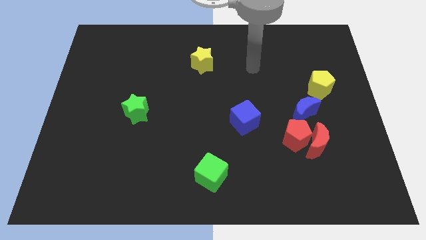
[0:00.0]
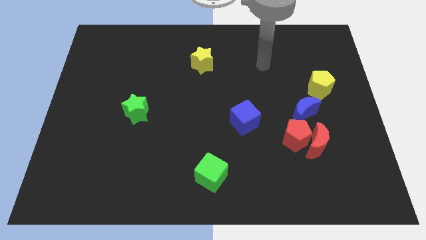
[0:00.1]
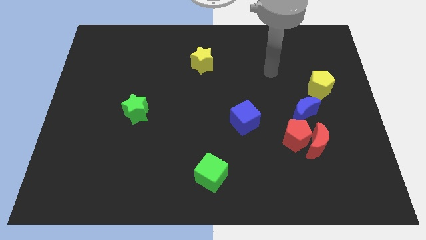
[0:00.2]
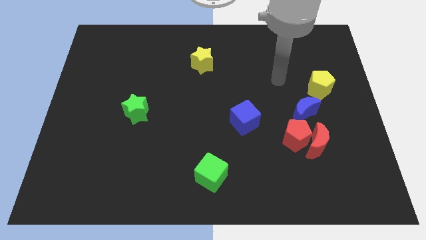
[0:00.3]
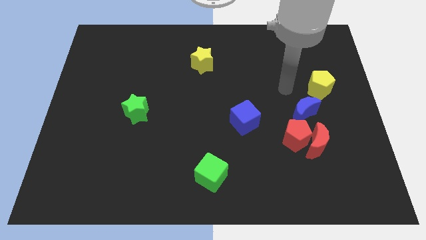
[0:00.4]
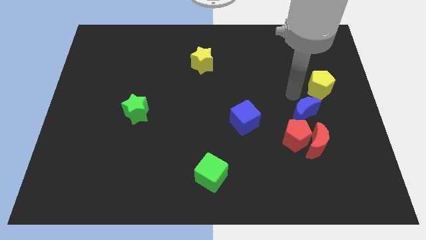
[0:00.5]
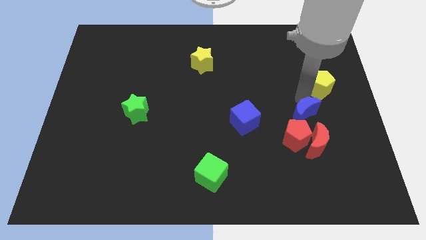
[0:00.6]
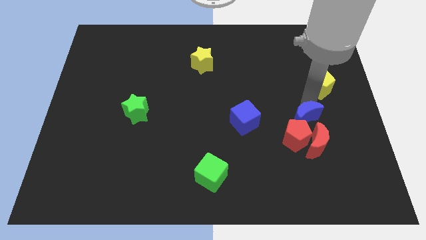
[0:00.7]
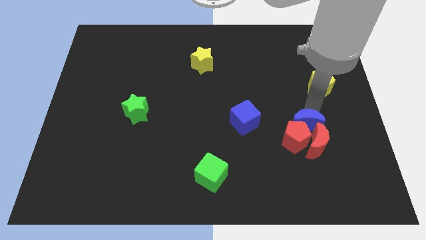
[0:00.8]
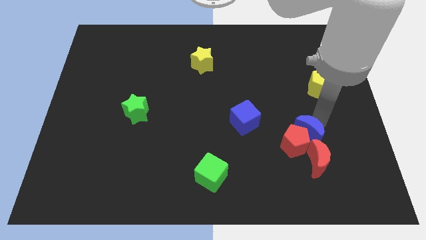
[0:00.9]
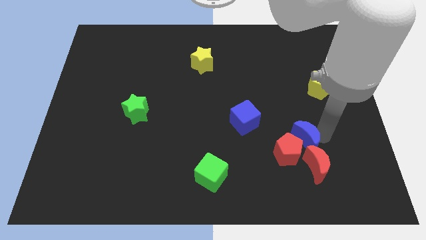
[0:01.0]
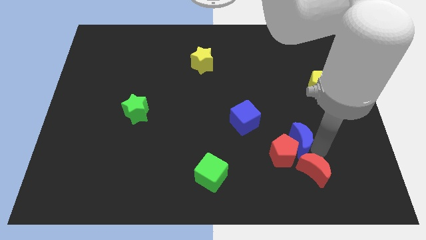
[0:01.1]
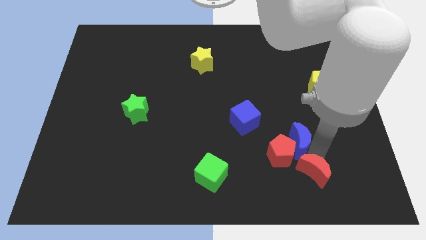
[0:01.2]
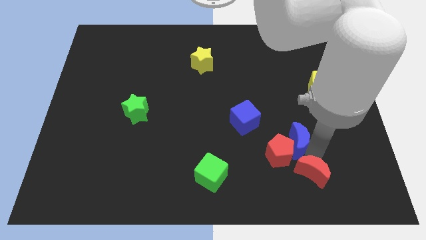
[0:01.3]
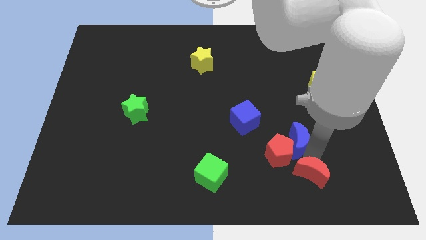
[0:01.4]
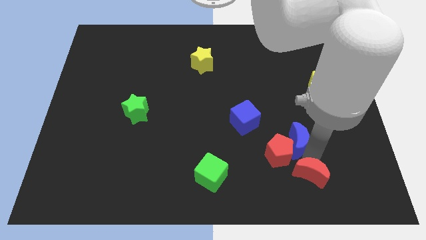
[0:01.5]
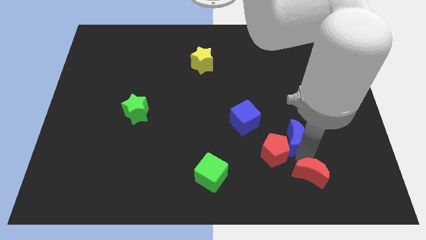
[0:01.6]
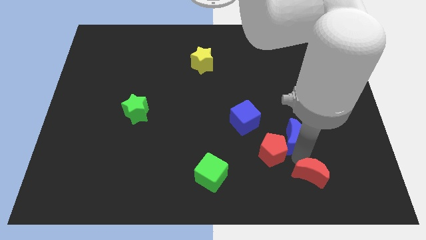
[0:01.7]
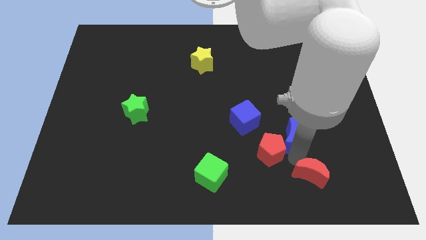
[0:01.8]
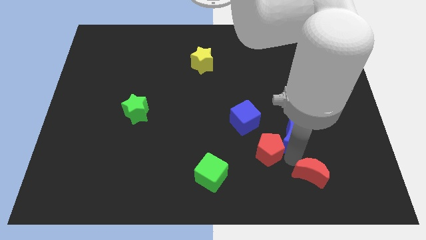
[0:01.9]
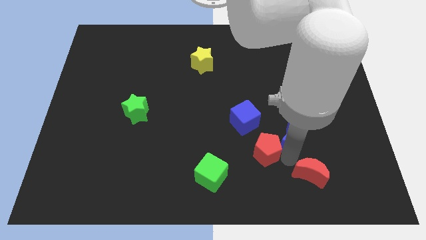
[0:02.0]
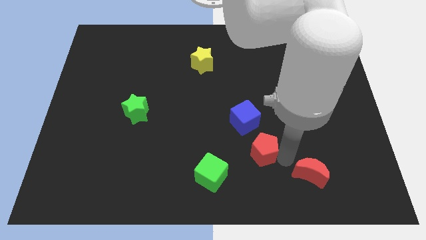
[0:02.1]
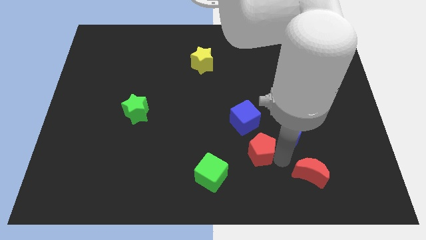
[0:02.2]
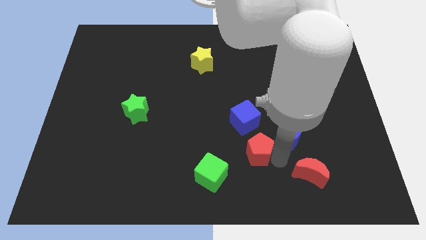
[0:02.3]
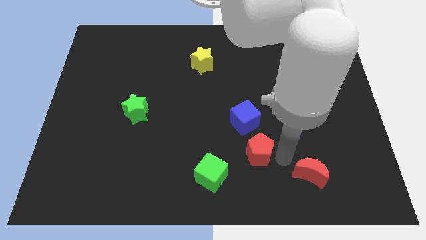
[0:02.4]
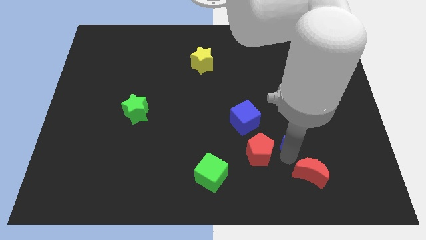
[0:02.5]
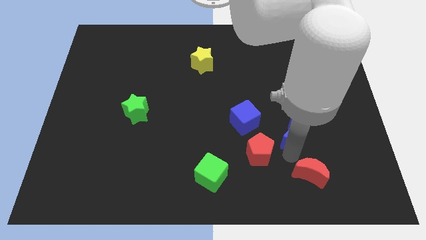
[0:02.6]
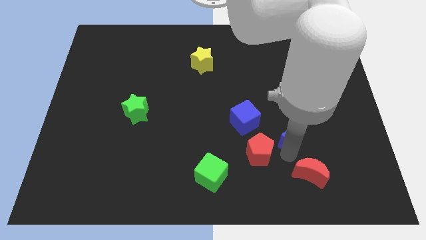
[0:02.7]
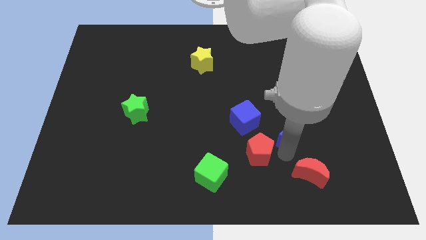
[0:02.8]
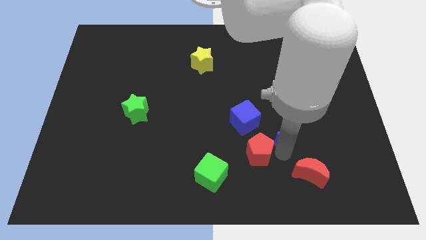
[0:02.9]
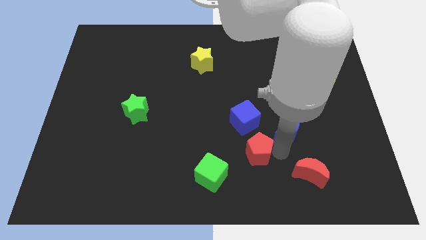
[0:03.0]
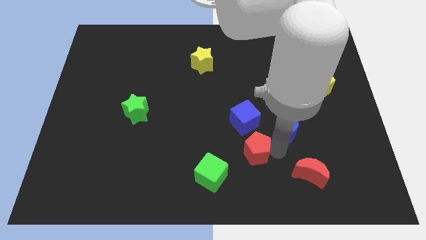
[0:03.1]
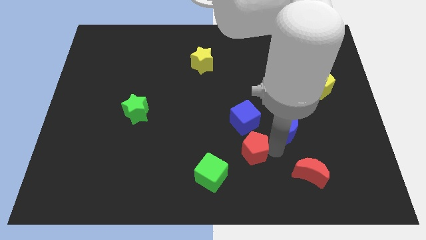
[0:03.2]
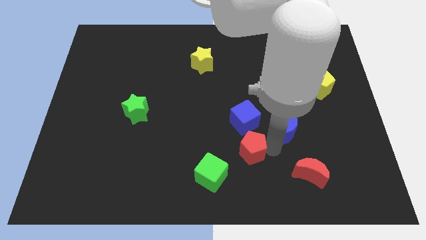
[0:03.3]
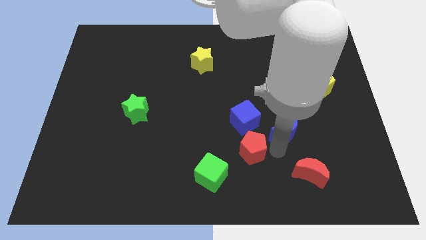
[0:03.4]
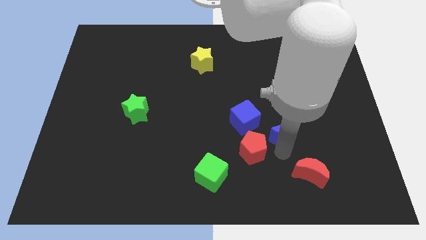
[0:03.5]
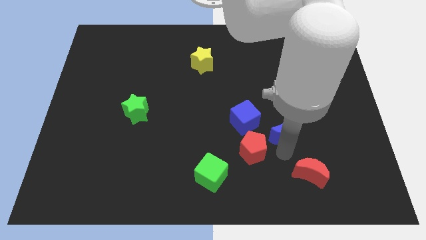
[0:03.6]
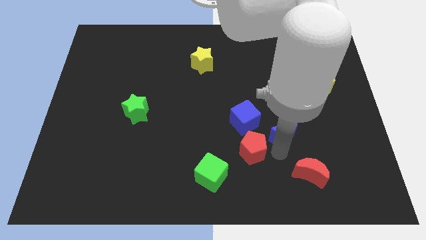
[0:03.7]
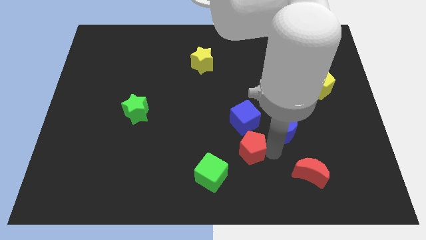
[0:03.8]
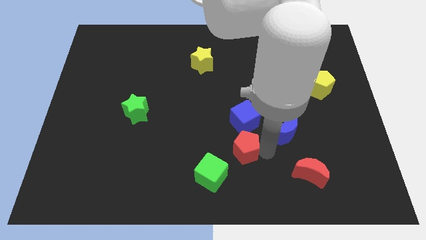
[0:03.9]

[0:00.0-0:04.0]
move the red pentagon away from the red moon and blue moon

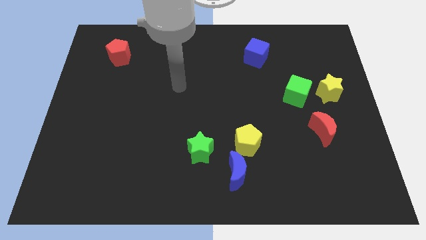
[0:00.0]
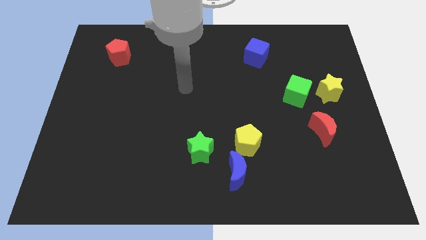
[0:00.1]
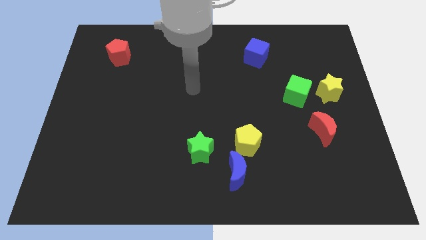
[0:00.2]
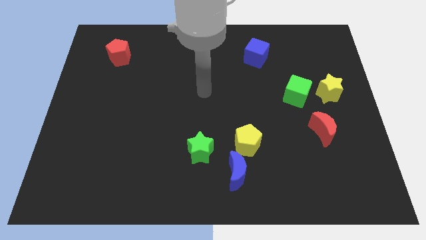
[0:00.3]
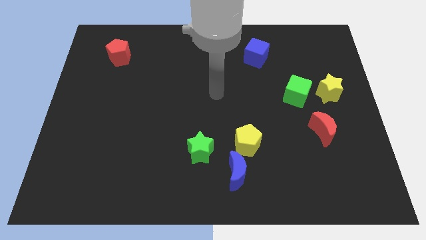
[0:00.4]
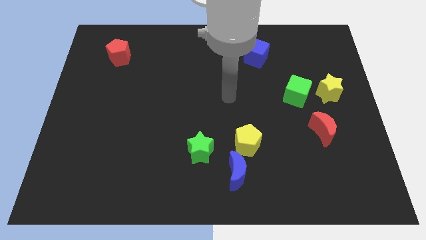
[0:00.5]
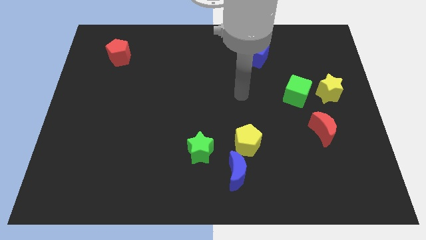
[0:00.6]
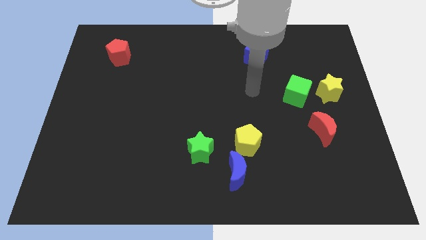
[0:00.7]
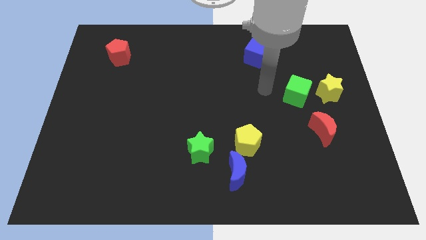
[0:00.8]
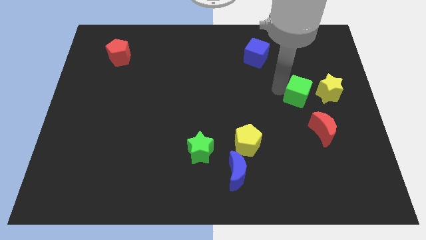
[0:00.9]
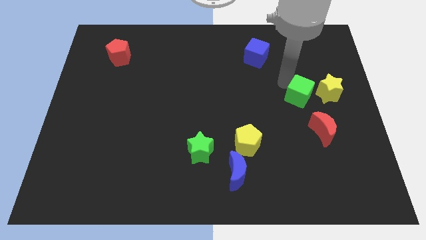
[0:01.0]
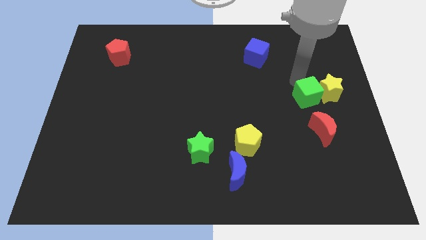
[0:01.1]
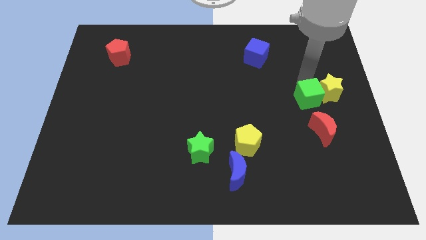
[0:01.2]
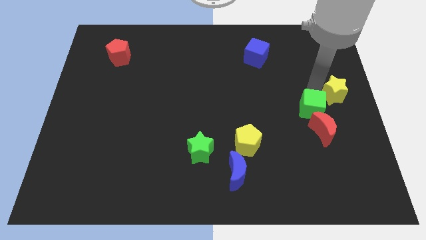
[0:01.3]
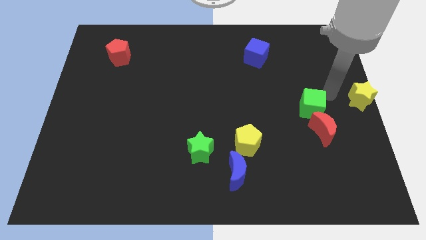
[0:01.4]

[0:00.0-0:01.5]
move the green cube away from the yellow star

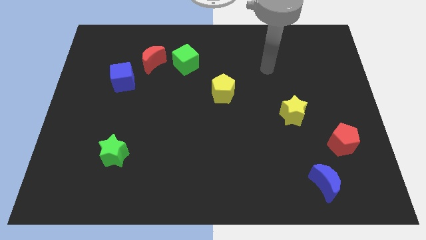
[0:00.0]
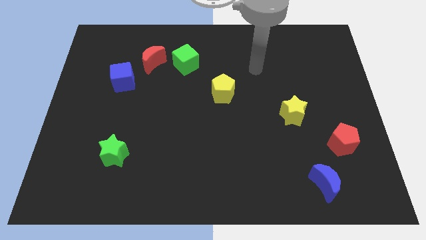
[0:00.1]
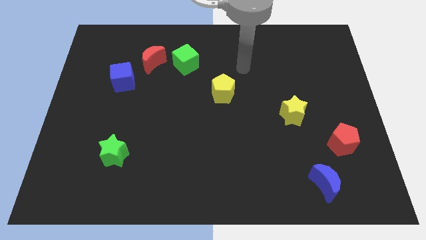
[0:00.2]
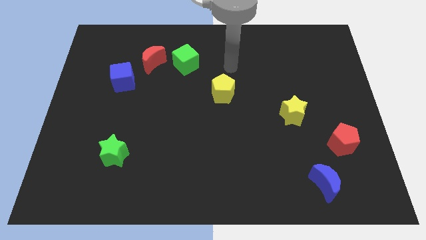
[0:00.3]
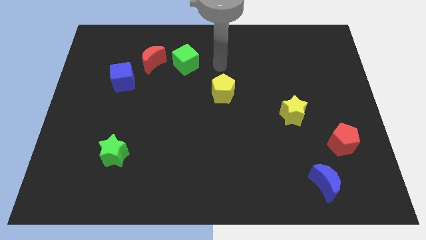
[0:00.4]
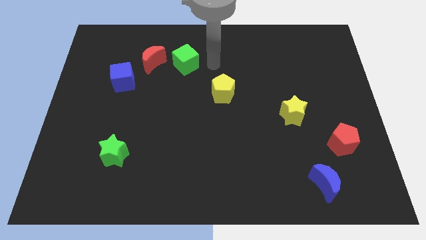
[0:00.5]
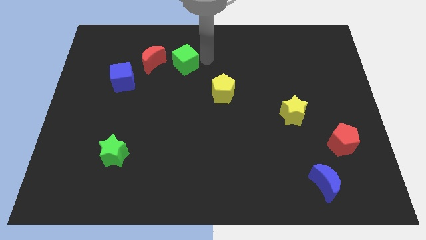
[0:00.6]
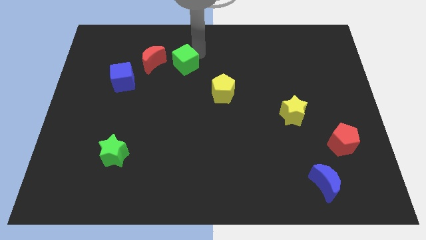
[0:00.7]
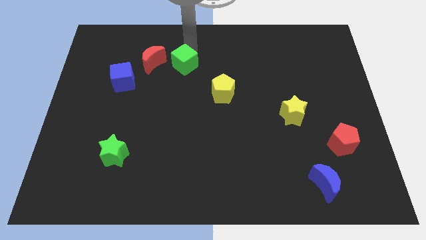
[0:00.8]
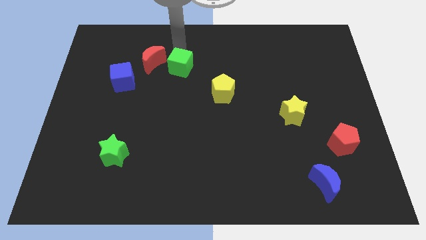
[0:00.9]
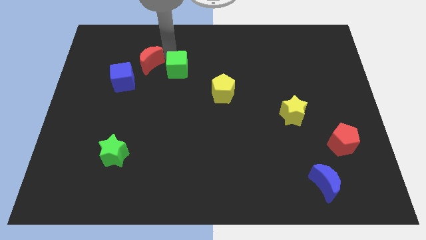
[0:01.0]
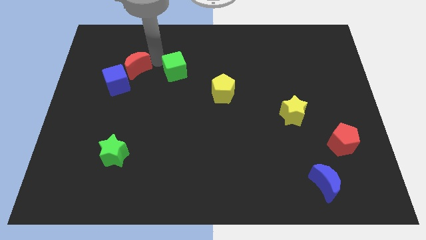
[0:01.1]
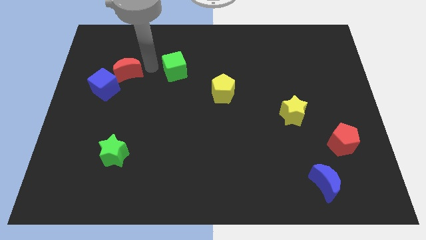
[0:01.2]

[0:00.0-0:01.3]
pull the green cube apart from the red moon

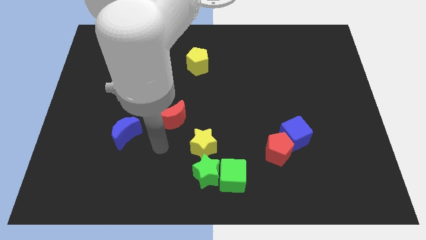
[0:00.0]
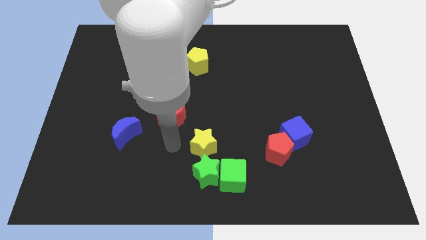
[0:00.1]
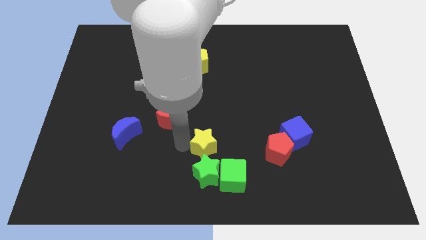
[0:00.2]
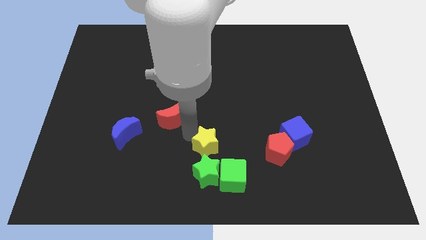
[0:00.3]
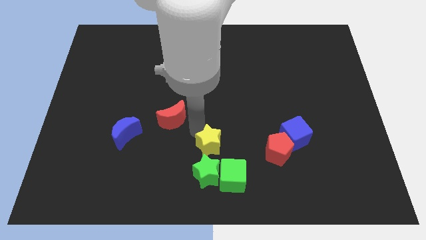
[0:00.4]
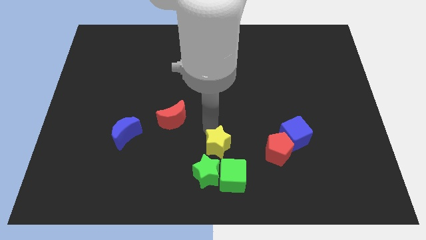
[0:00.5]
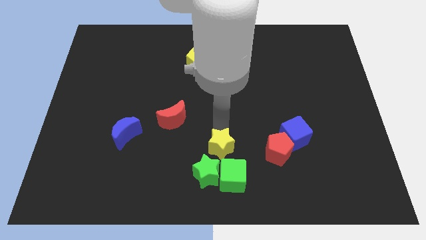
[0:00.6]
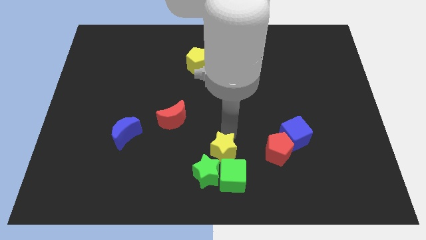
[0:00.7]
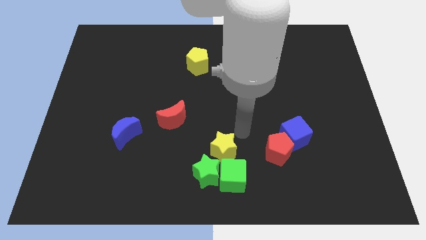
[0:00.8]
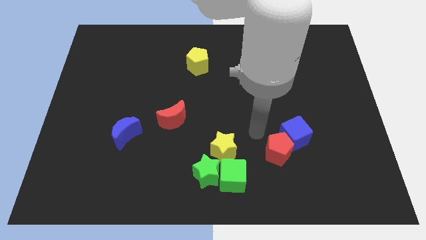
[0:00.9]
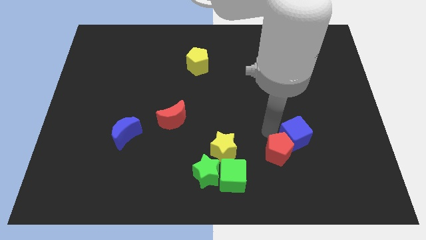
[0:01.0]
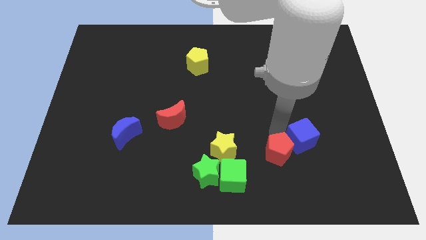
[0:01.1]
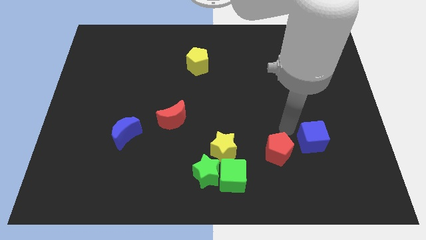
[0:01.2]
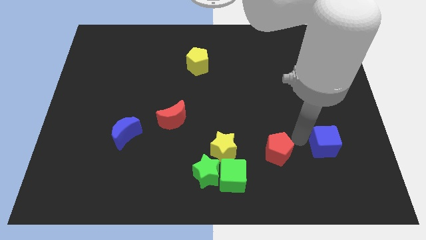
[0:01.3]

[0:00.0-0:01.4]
separate the red pentagon from the blue cube

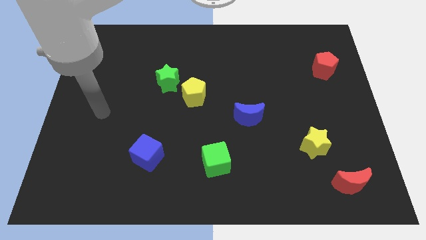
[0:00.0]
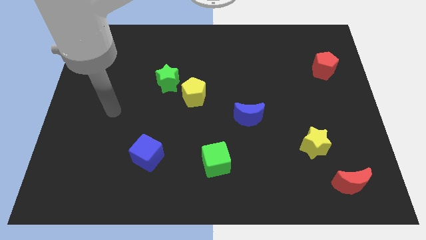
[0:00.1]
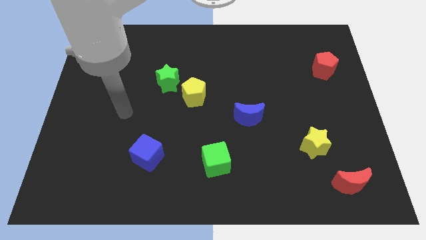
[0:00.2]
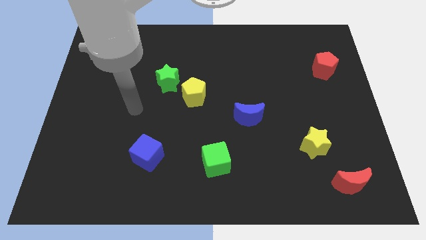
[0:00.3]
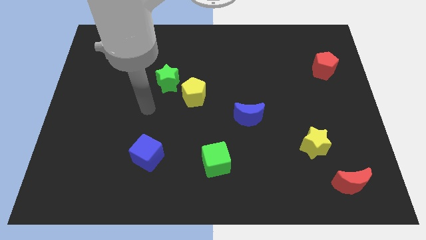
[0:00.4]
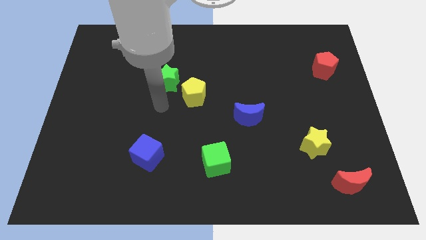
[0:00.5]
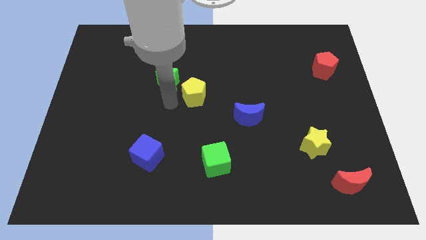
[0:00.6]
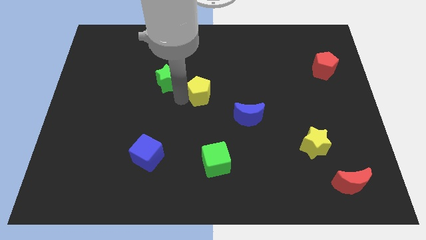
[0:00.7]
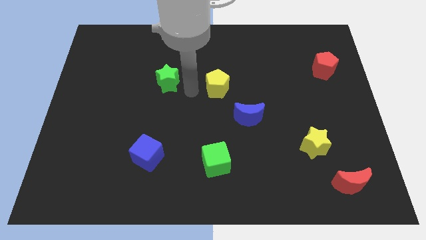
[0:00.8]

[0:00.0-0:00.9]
pull the green star apart from the yellow pentagon

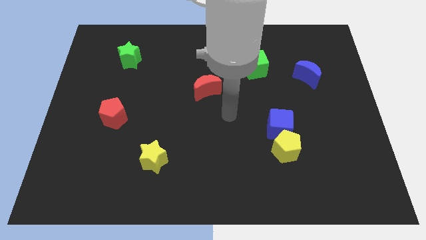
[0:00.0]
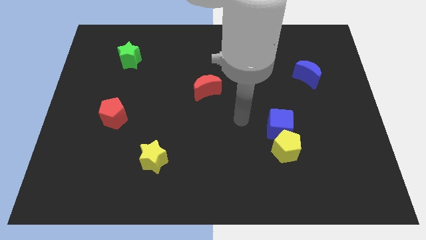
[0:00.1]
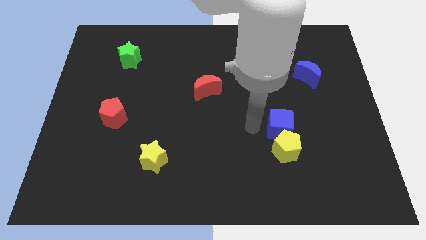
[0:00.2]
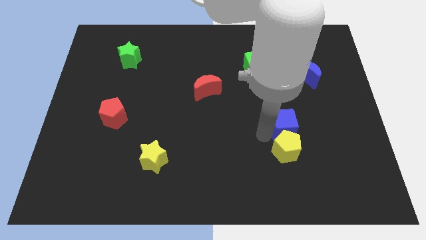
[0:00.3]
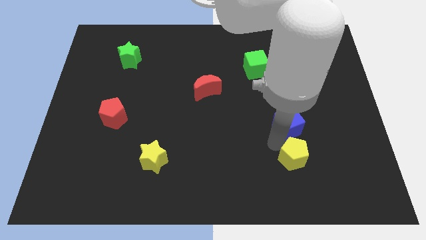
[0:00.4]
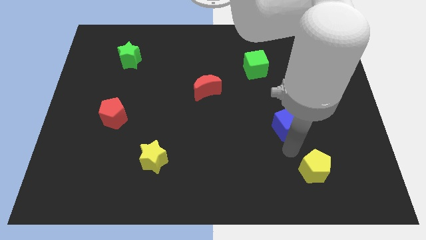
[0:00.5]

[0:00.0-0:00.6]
pull the blue cube apart from the yellow pentagon
